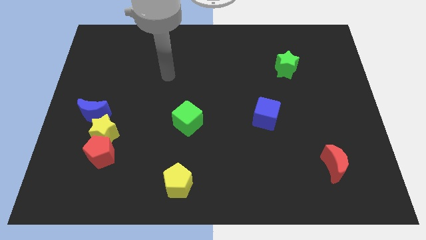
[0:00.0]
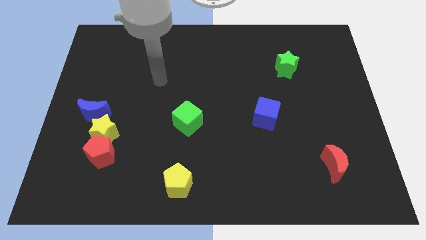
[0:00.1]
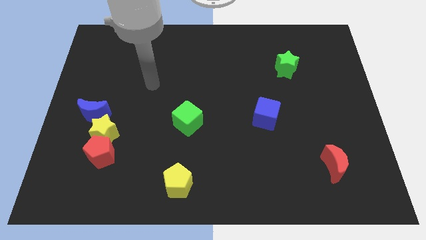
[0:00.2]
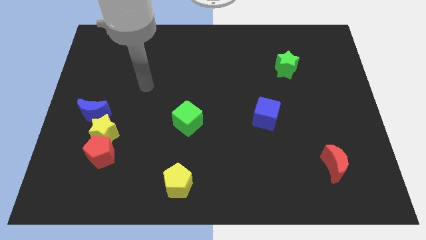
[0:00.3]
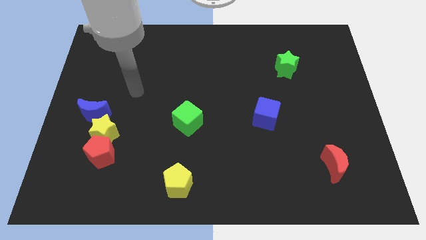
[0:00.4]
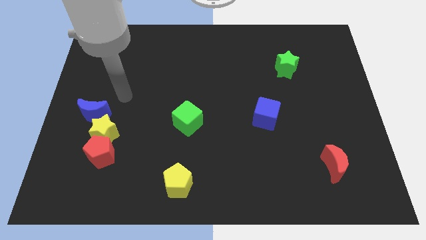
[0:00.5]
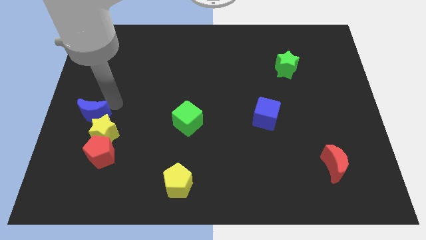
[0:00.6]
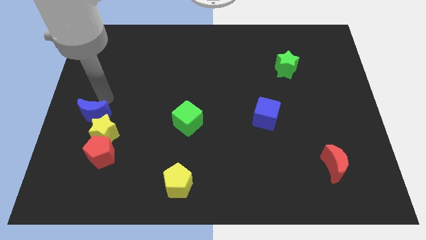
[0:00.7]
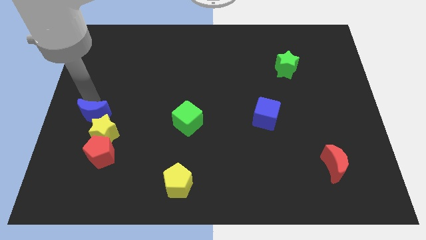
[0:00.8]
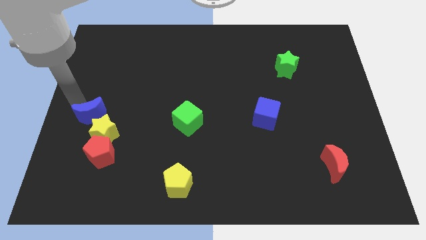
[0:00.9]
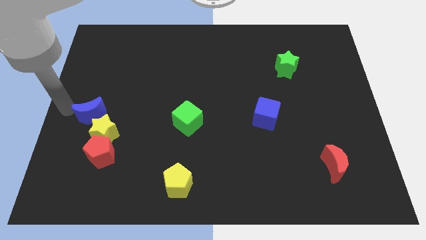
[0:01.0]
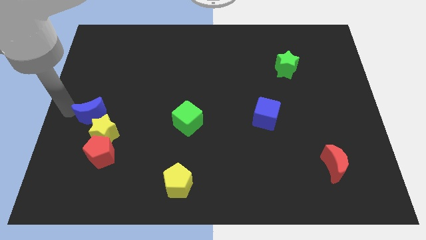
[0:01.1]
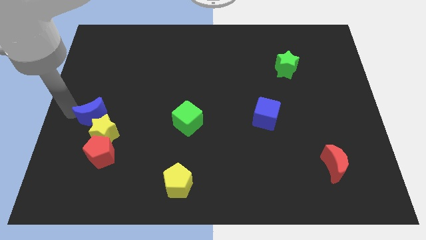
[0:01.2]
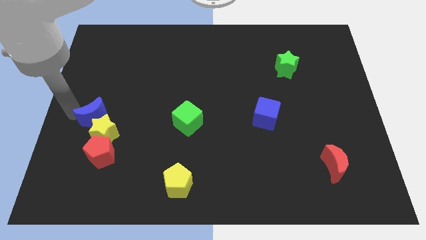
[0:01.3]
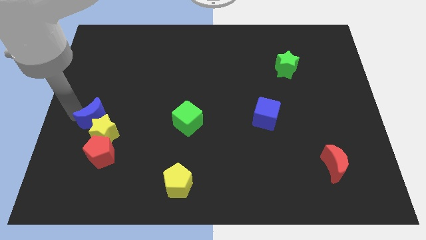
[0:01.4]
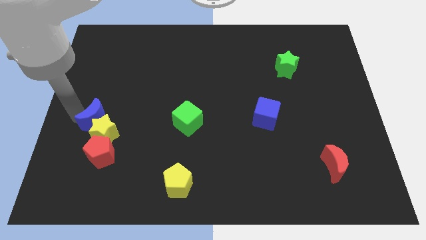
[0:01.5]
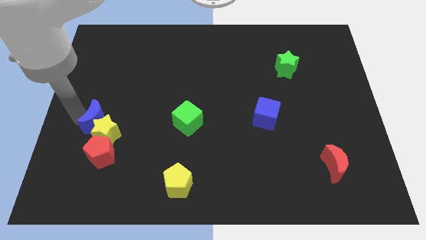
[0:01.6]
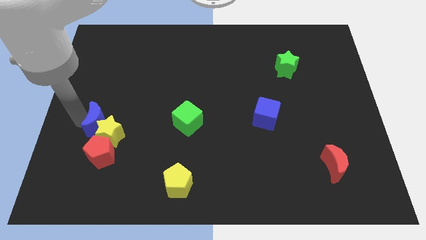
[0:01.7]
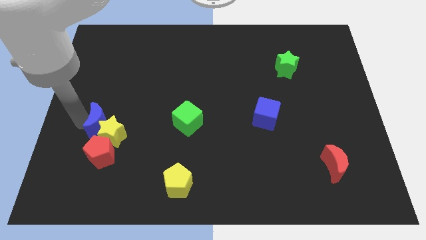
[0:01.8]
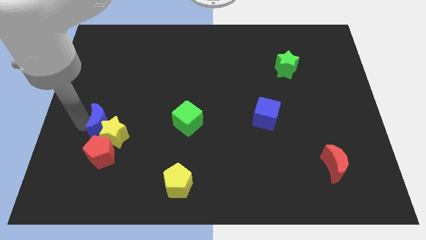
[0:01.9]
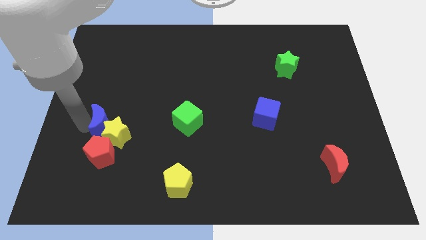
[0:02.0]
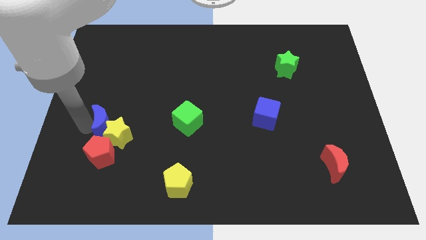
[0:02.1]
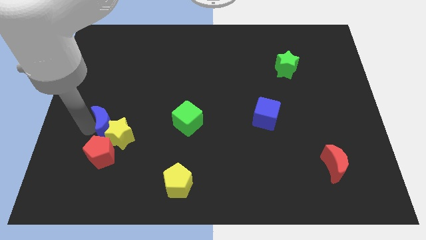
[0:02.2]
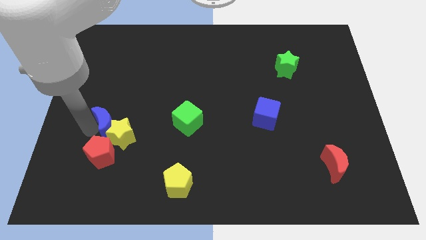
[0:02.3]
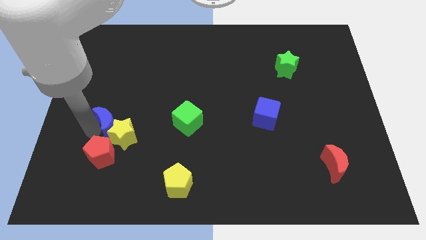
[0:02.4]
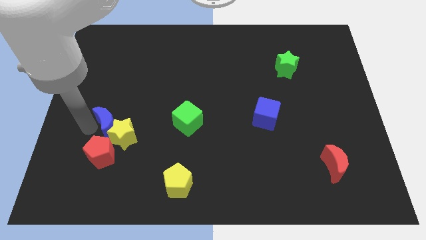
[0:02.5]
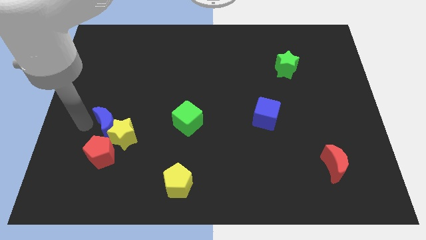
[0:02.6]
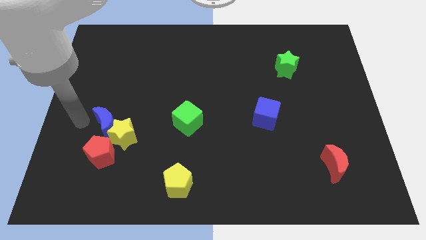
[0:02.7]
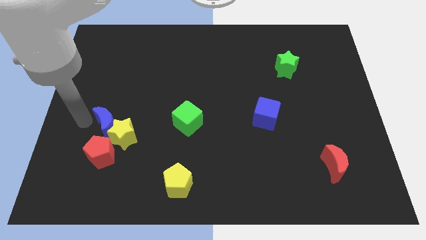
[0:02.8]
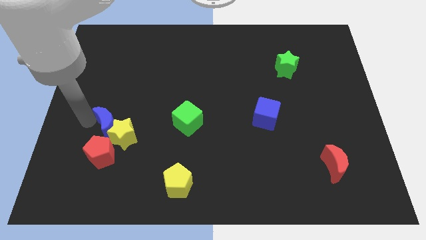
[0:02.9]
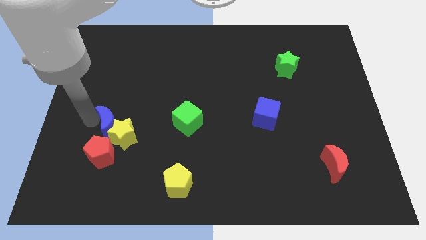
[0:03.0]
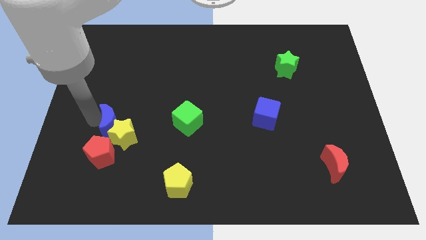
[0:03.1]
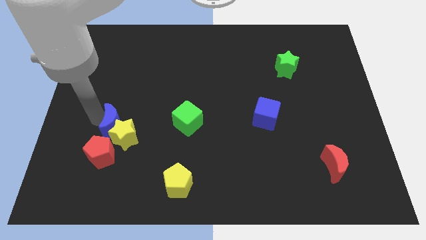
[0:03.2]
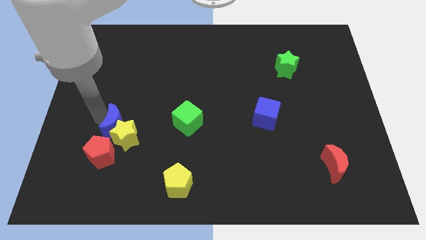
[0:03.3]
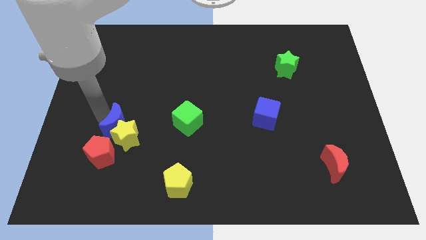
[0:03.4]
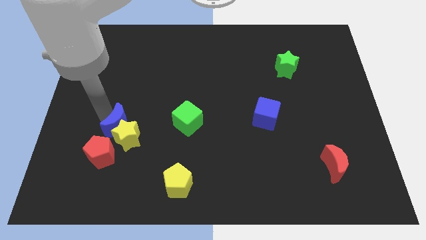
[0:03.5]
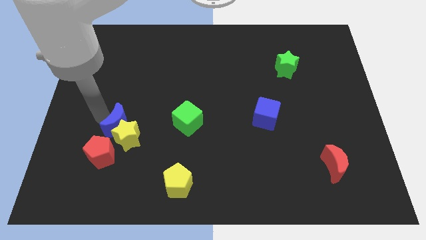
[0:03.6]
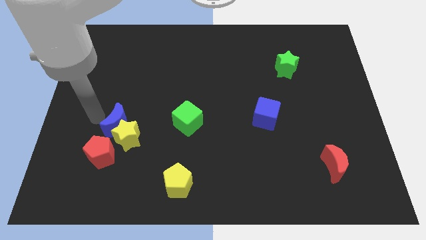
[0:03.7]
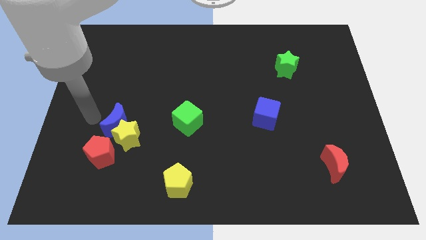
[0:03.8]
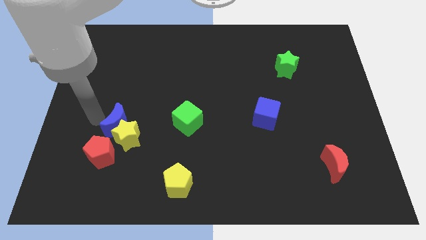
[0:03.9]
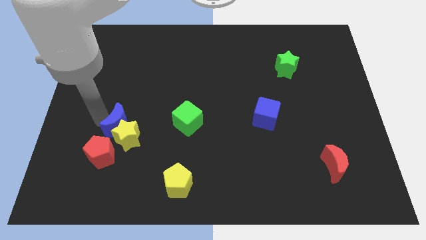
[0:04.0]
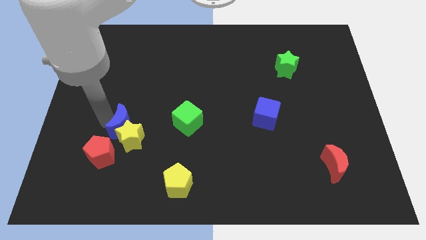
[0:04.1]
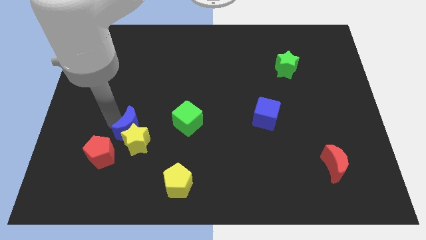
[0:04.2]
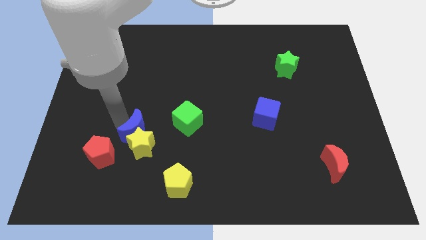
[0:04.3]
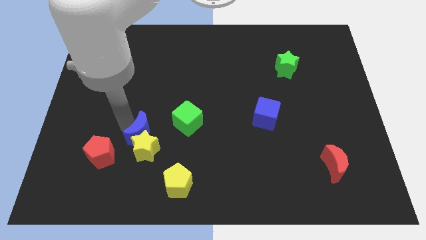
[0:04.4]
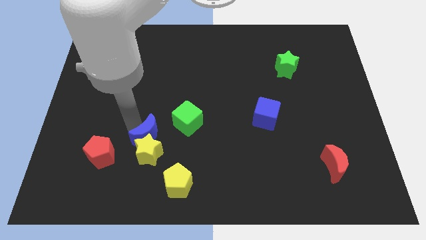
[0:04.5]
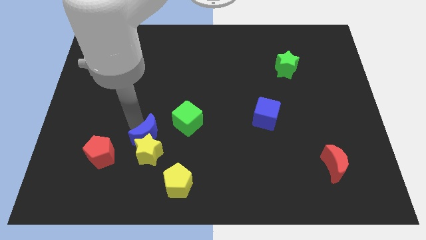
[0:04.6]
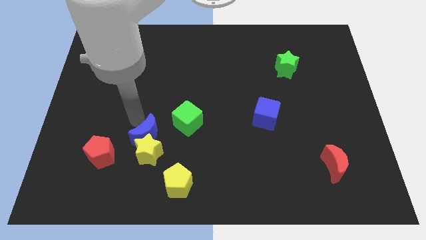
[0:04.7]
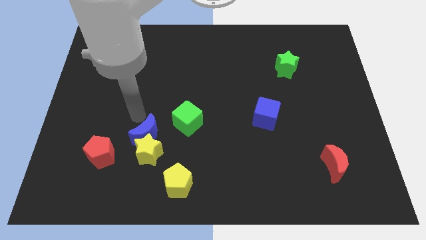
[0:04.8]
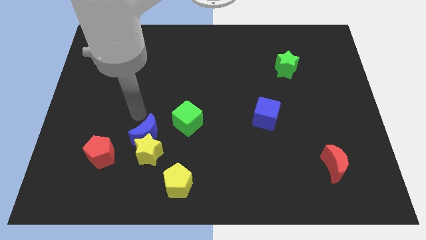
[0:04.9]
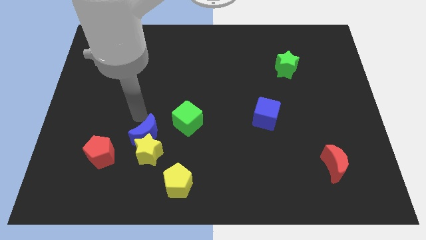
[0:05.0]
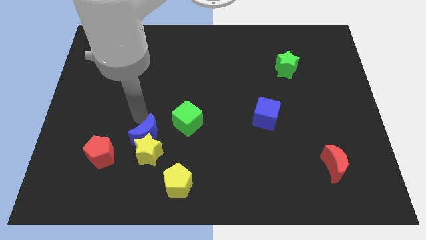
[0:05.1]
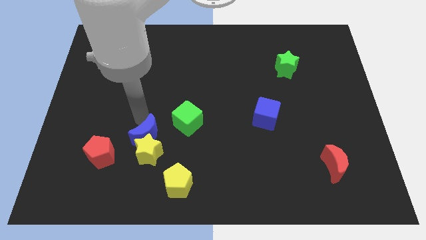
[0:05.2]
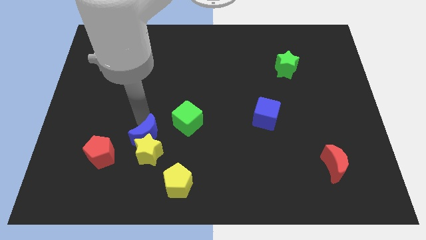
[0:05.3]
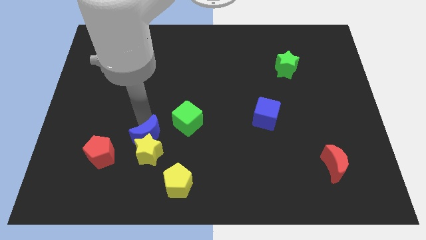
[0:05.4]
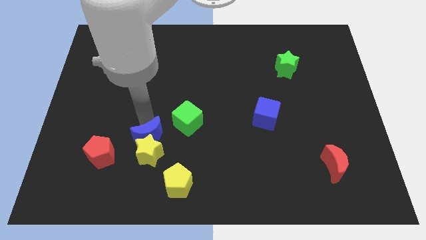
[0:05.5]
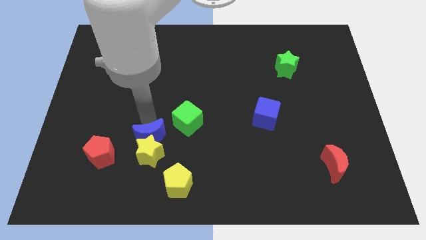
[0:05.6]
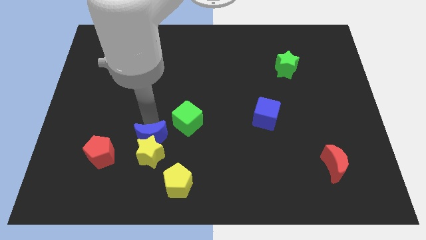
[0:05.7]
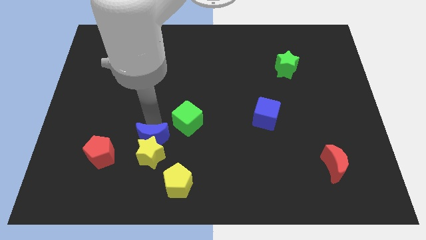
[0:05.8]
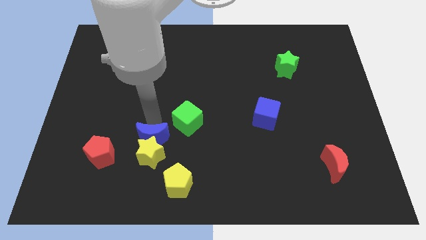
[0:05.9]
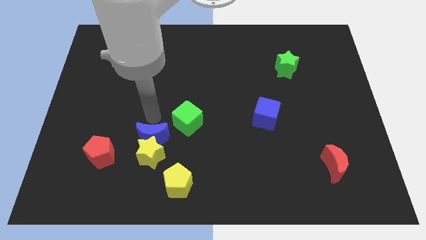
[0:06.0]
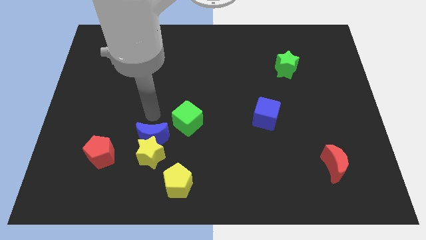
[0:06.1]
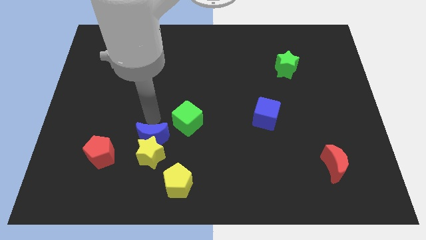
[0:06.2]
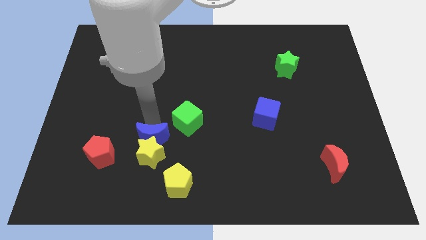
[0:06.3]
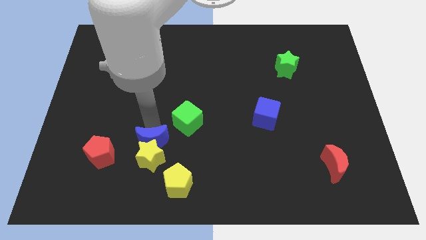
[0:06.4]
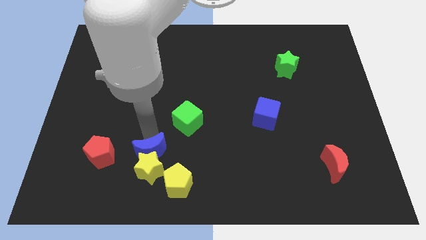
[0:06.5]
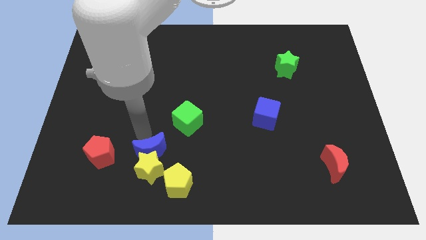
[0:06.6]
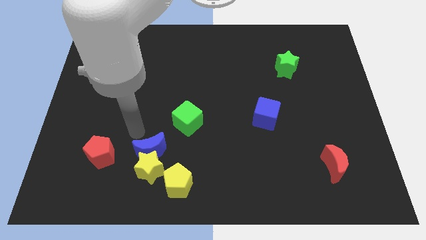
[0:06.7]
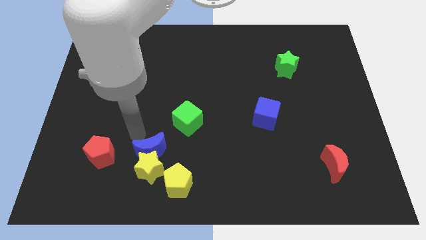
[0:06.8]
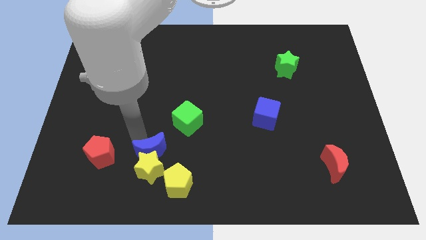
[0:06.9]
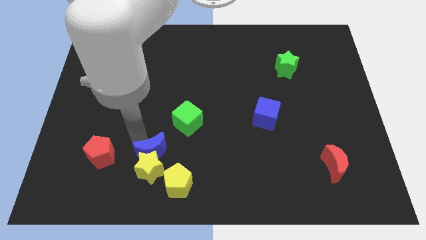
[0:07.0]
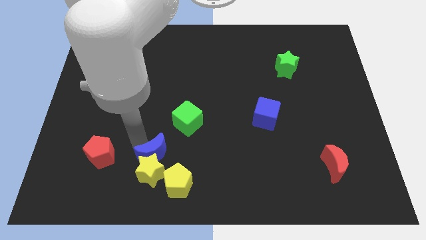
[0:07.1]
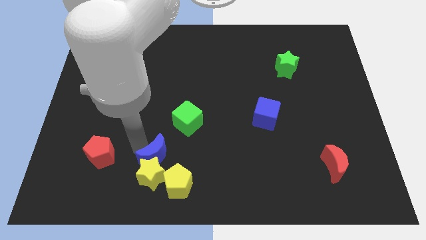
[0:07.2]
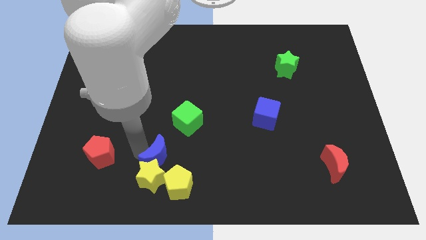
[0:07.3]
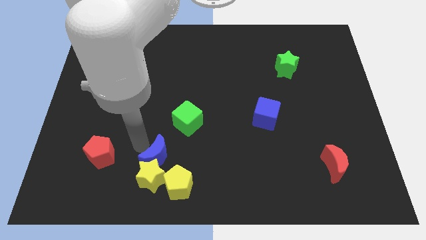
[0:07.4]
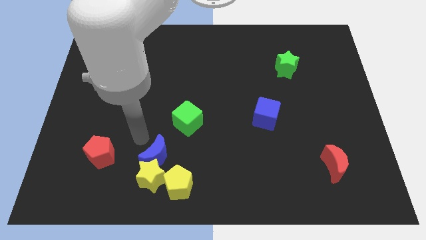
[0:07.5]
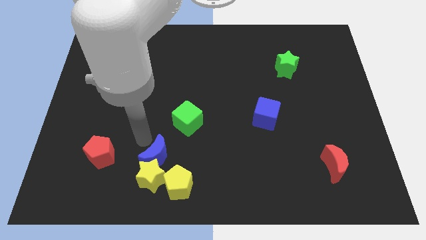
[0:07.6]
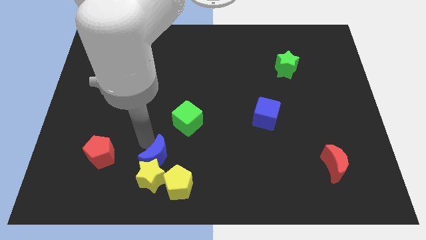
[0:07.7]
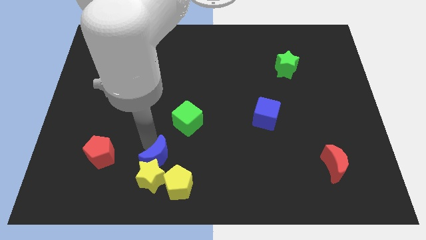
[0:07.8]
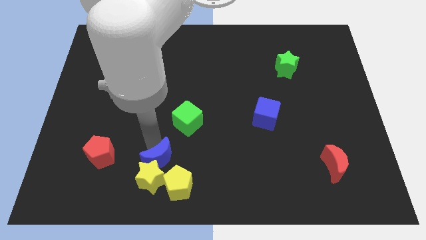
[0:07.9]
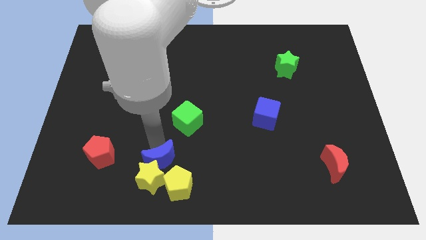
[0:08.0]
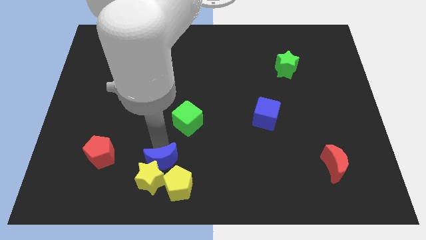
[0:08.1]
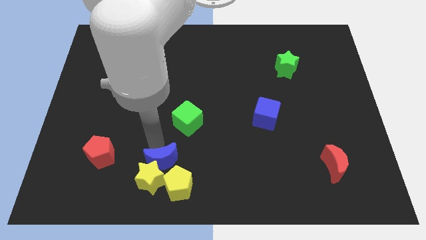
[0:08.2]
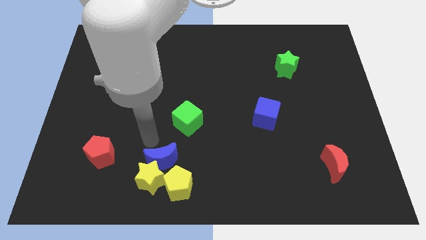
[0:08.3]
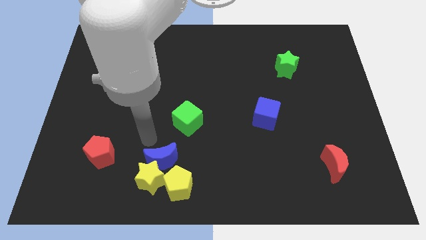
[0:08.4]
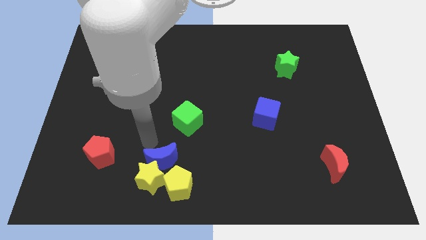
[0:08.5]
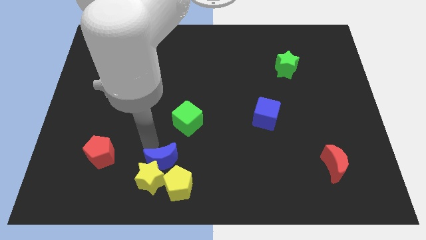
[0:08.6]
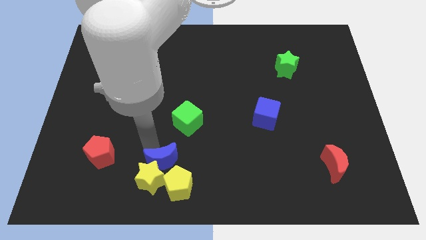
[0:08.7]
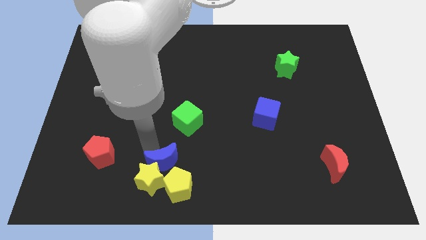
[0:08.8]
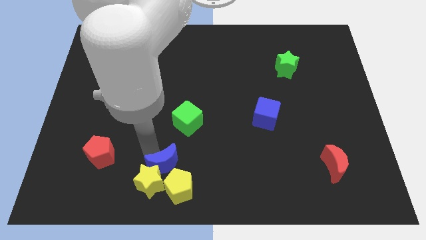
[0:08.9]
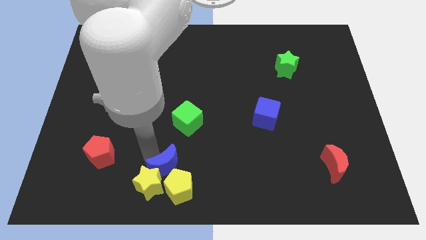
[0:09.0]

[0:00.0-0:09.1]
move the blue moon towards the yellow pentagon
